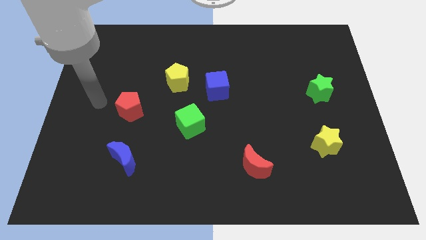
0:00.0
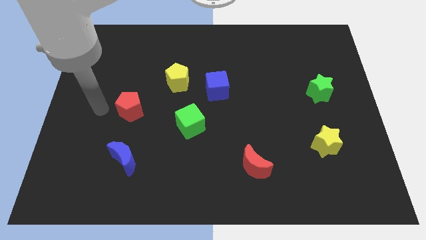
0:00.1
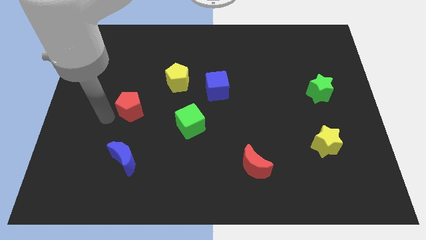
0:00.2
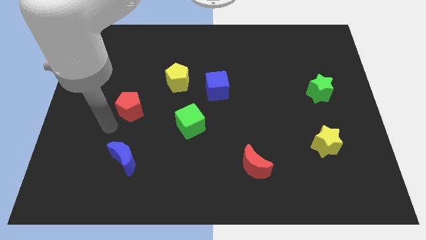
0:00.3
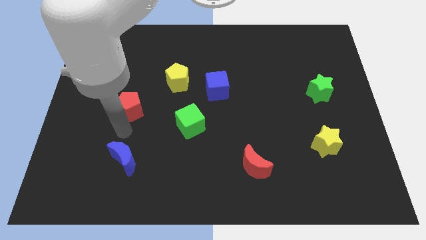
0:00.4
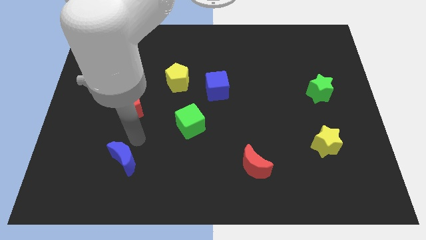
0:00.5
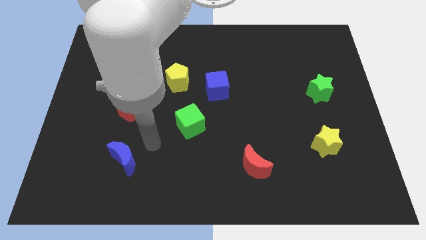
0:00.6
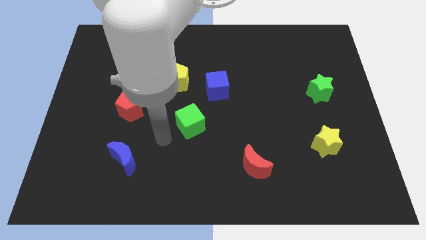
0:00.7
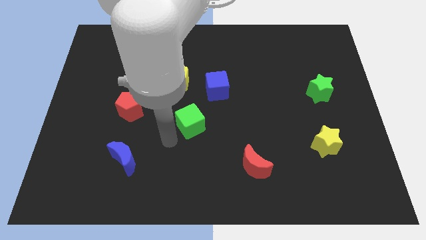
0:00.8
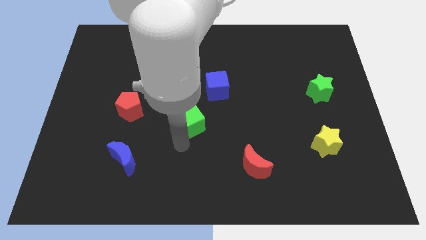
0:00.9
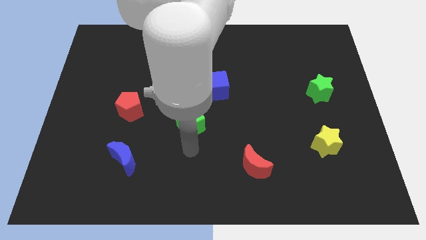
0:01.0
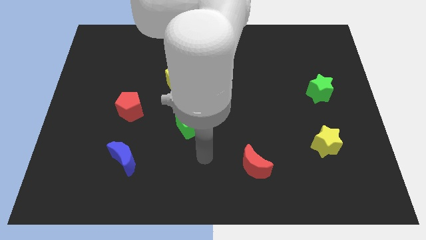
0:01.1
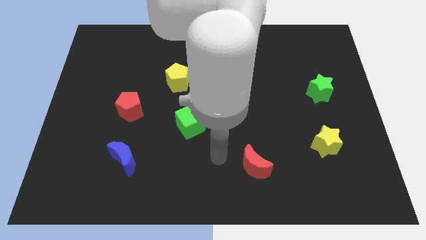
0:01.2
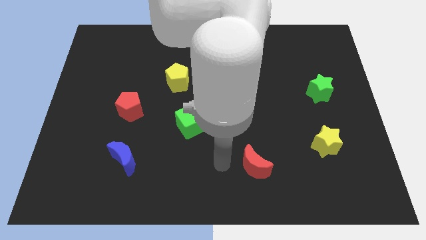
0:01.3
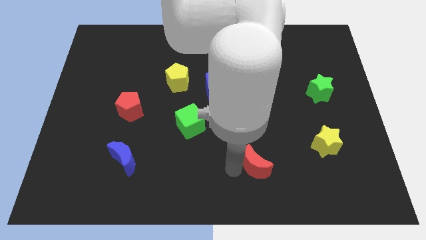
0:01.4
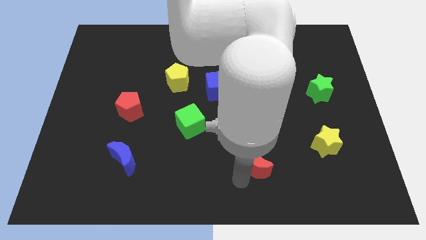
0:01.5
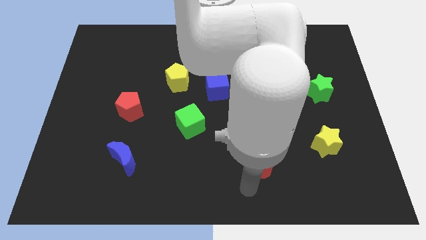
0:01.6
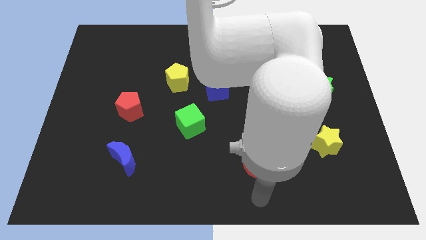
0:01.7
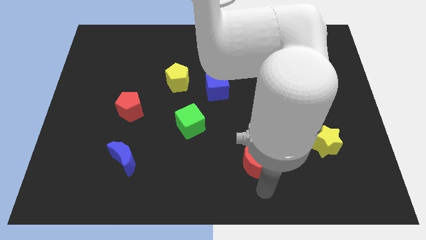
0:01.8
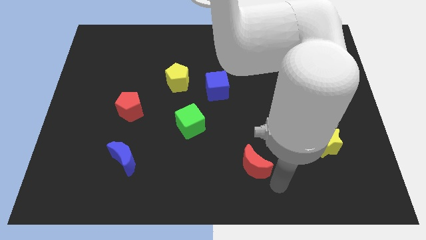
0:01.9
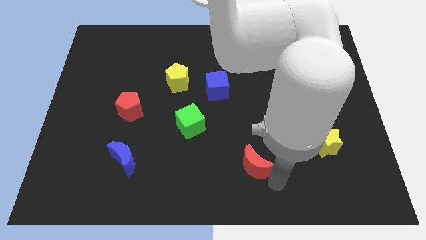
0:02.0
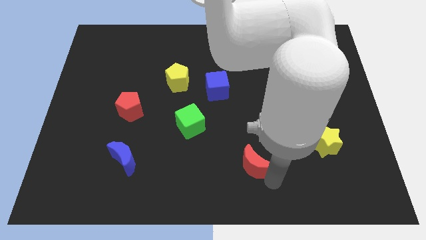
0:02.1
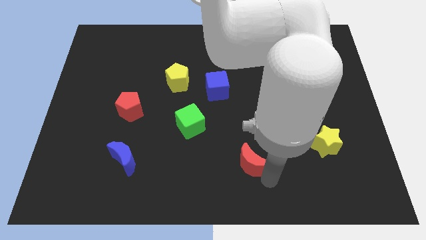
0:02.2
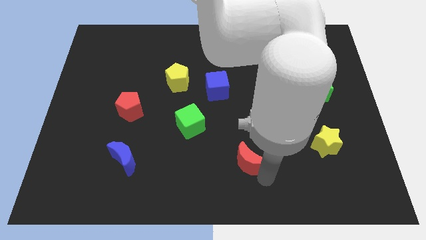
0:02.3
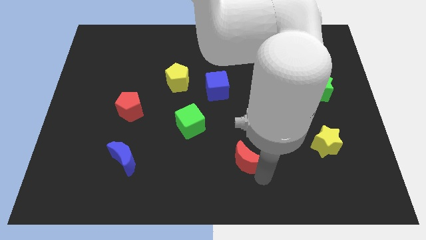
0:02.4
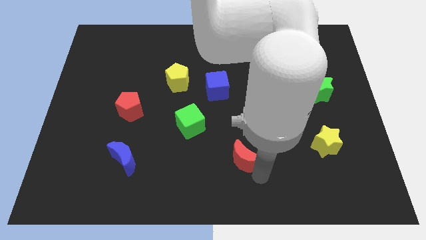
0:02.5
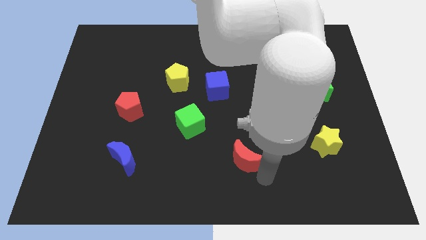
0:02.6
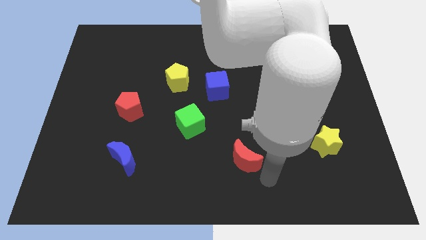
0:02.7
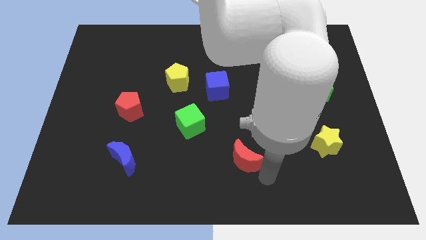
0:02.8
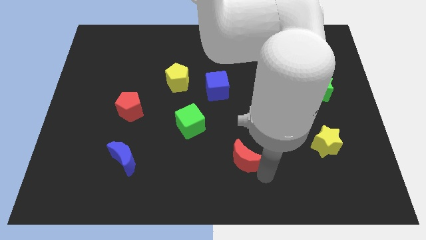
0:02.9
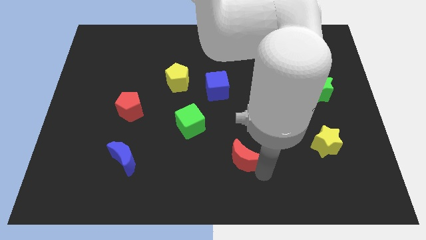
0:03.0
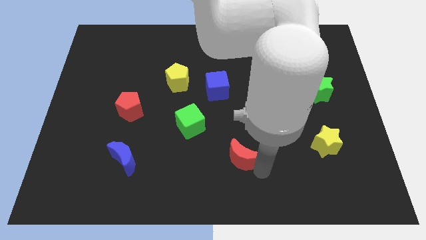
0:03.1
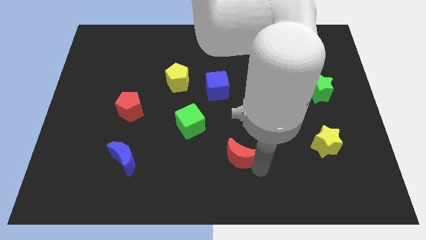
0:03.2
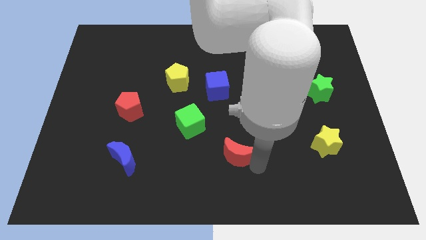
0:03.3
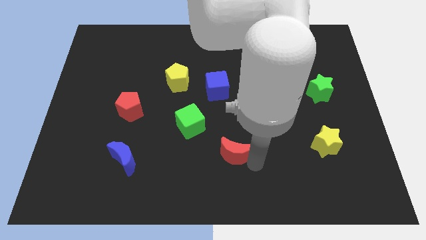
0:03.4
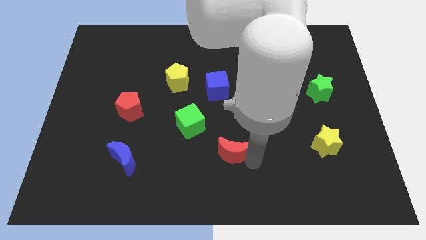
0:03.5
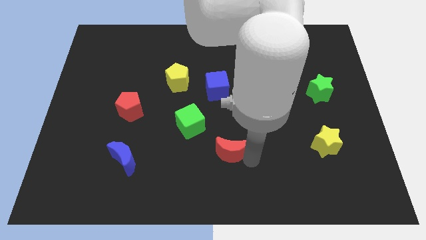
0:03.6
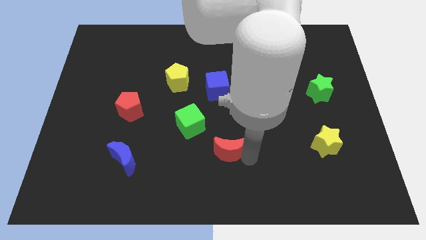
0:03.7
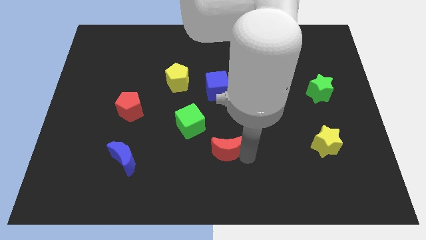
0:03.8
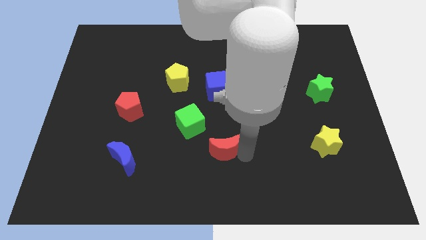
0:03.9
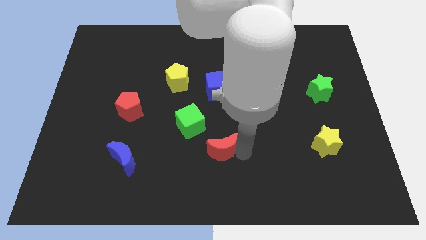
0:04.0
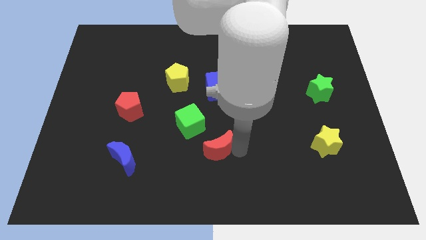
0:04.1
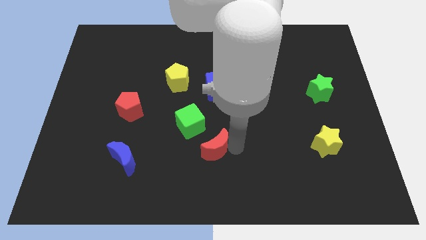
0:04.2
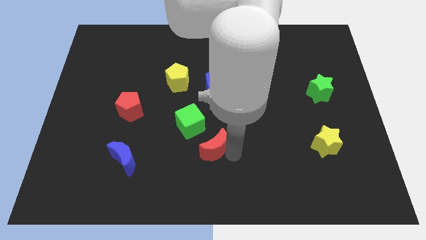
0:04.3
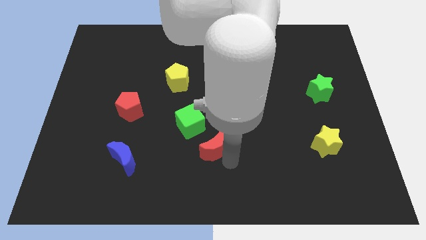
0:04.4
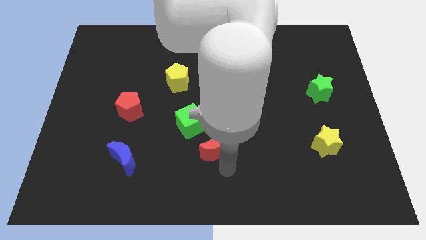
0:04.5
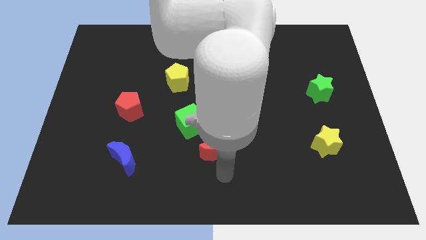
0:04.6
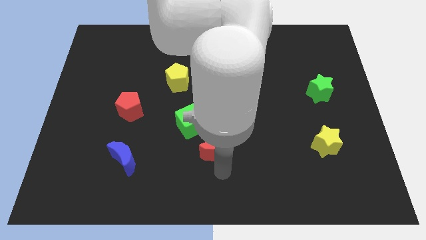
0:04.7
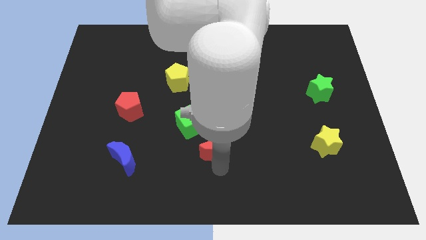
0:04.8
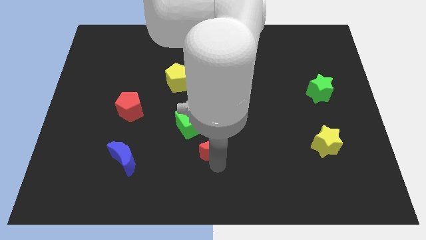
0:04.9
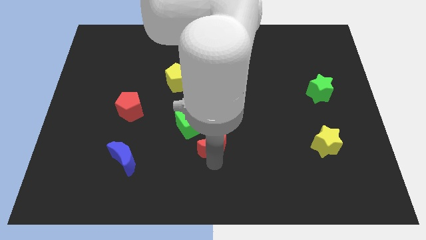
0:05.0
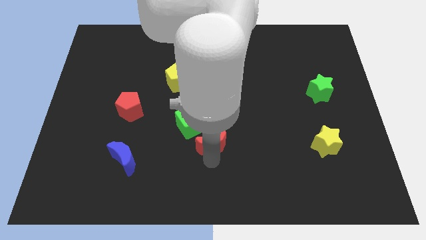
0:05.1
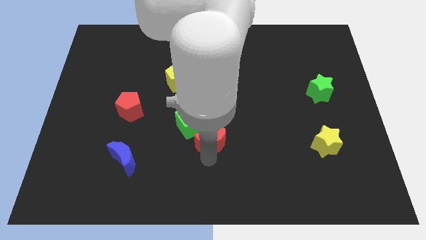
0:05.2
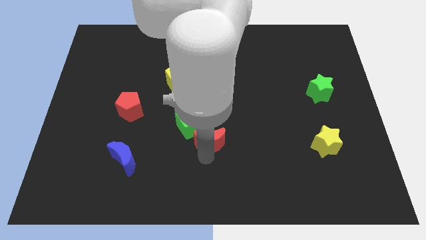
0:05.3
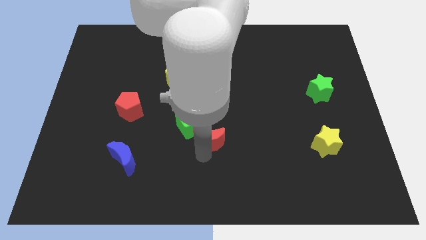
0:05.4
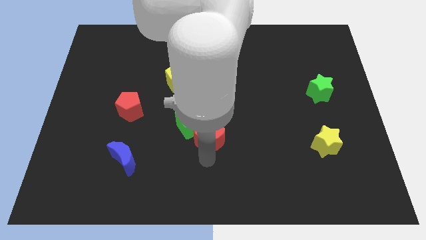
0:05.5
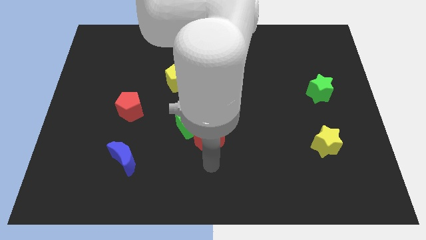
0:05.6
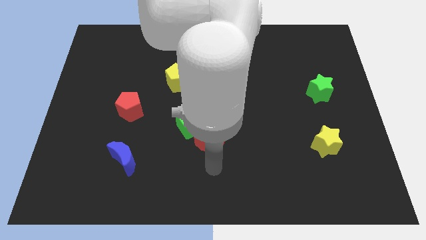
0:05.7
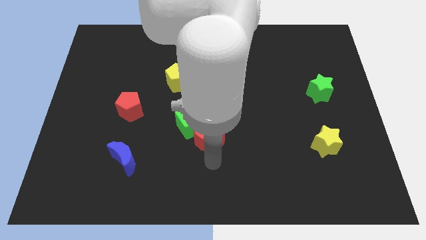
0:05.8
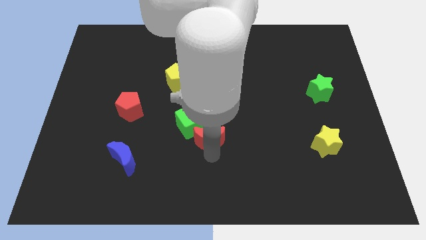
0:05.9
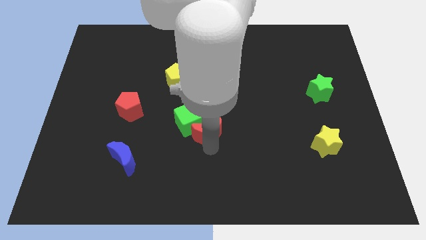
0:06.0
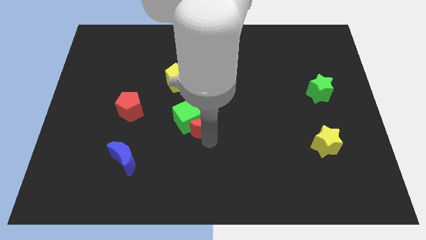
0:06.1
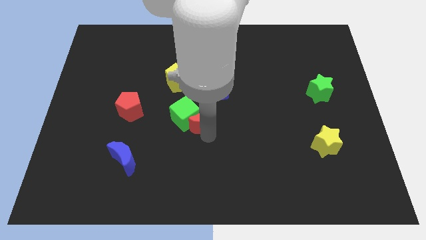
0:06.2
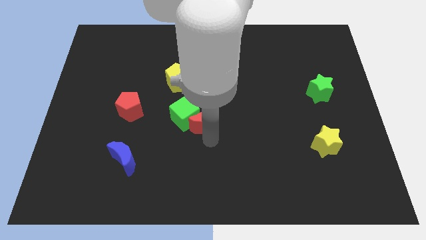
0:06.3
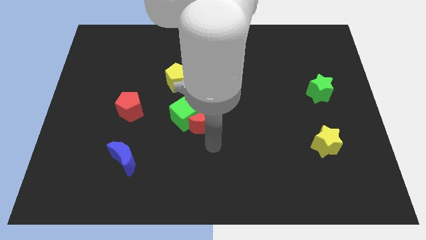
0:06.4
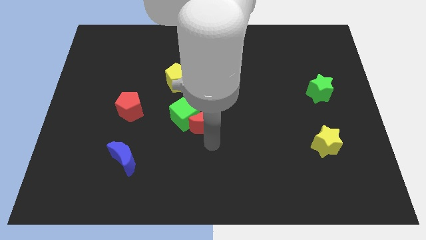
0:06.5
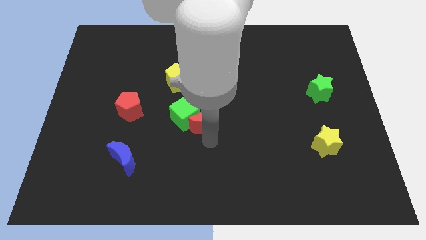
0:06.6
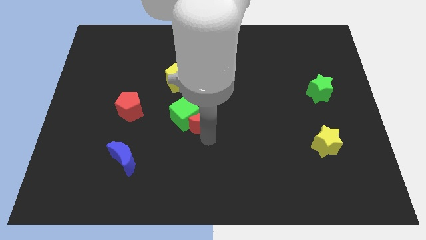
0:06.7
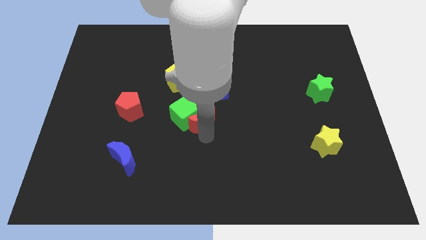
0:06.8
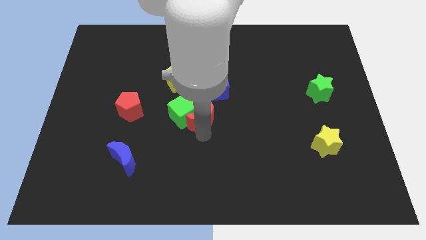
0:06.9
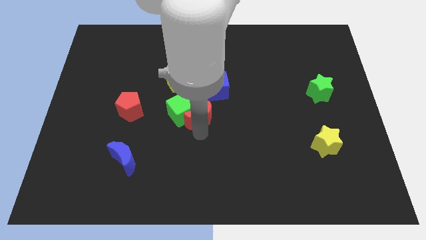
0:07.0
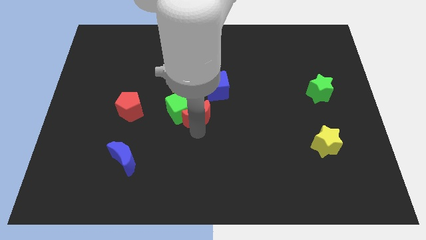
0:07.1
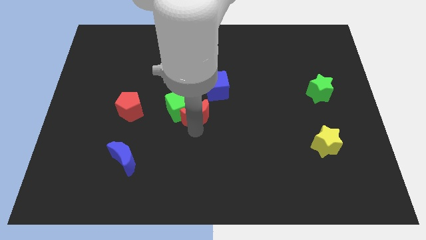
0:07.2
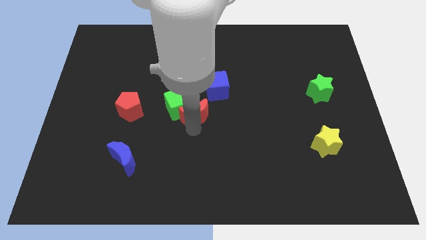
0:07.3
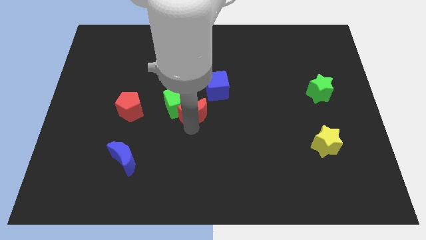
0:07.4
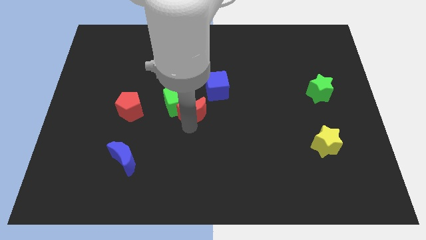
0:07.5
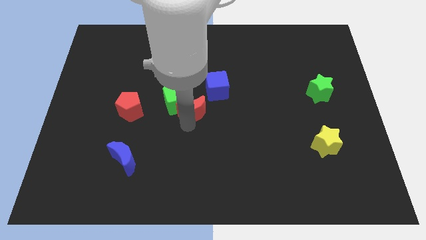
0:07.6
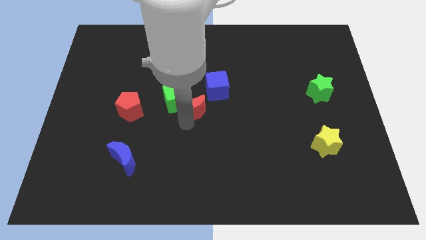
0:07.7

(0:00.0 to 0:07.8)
move the red moon up and left diagonally

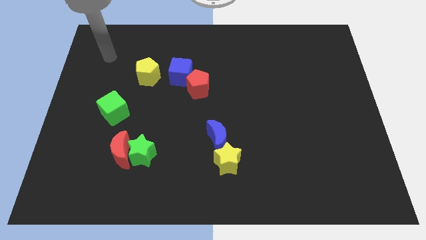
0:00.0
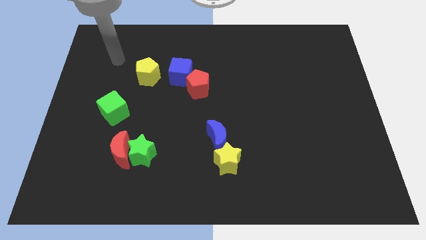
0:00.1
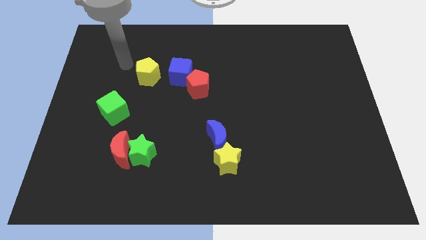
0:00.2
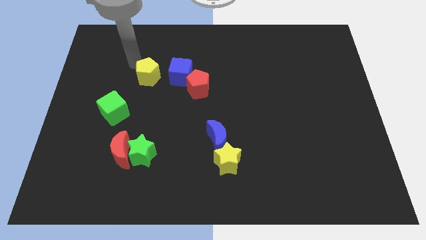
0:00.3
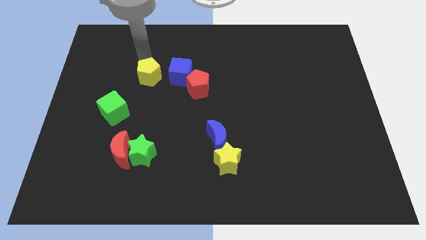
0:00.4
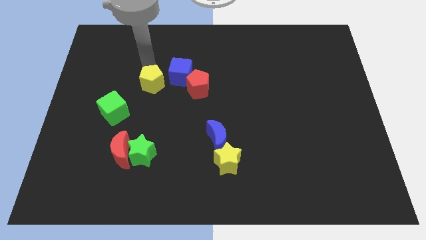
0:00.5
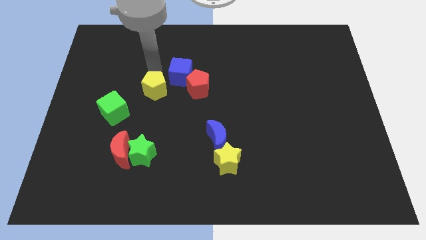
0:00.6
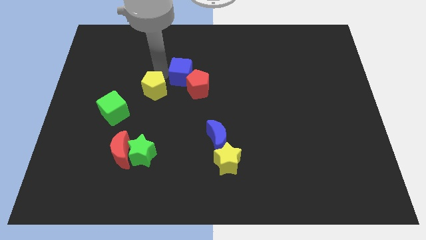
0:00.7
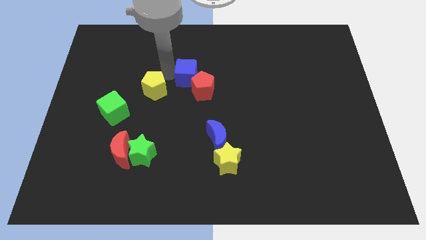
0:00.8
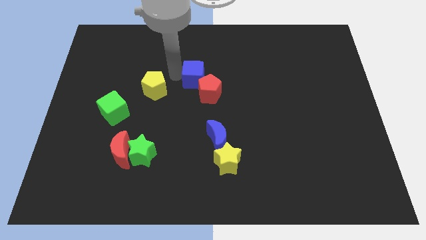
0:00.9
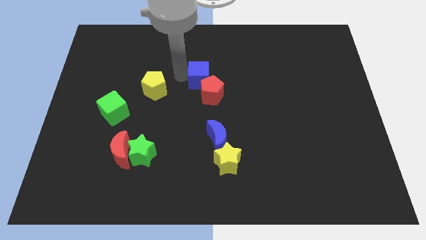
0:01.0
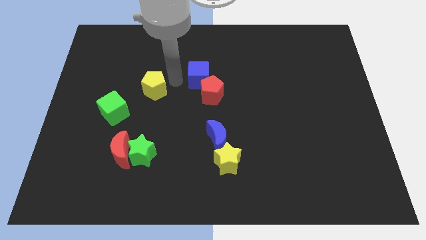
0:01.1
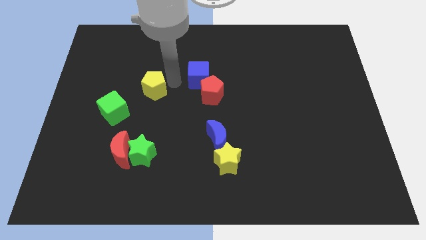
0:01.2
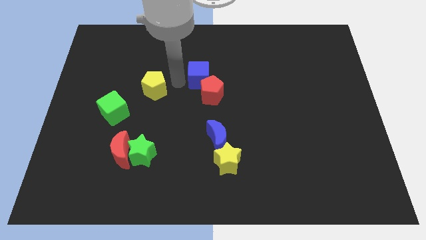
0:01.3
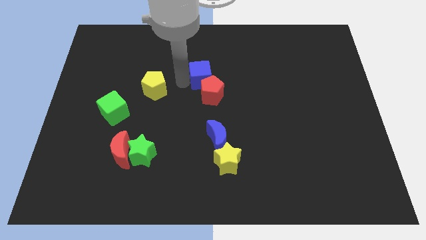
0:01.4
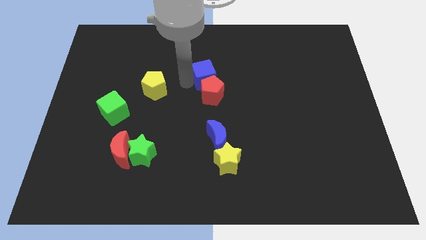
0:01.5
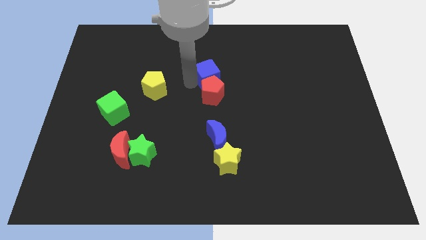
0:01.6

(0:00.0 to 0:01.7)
push the blue cube right a little
